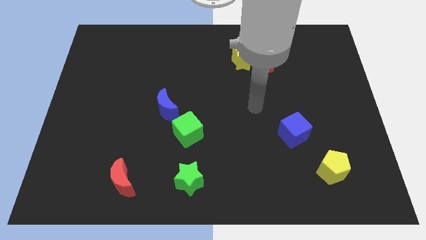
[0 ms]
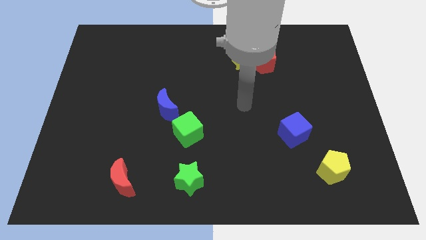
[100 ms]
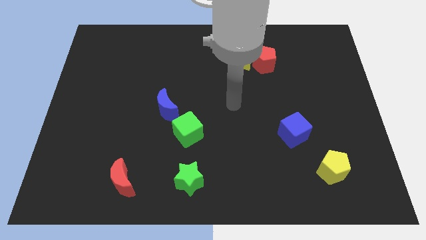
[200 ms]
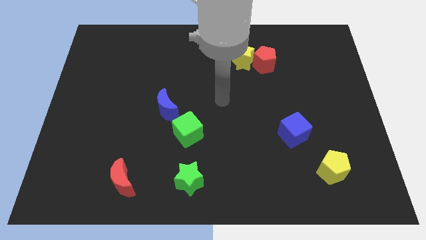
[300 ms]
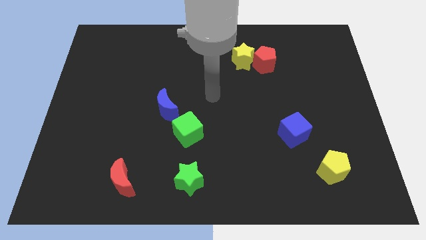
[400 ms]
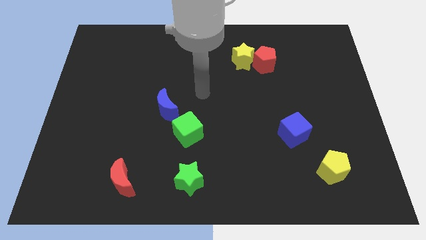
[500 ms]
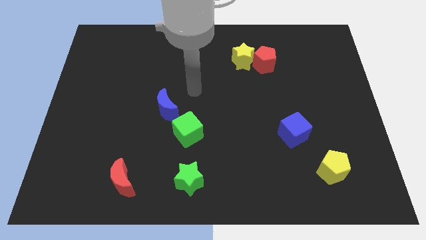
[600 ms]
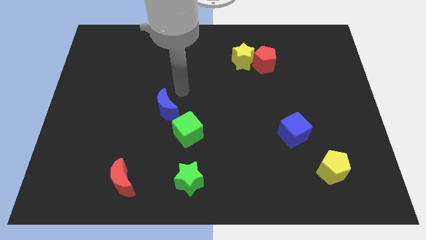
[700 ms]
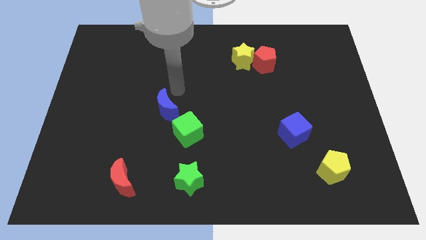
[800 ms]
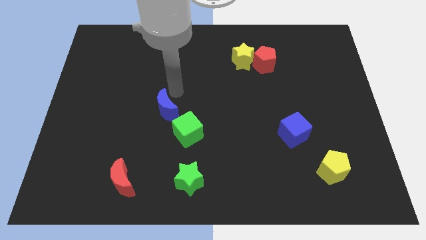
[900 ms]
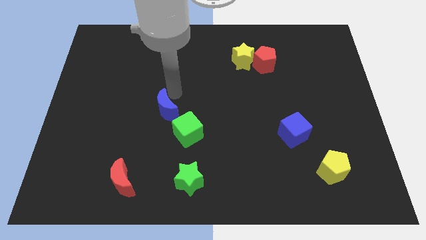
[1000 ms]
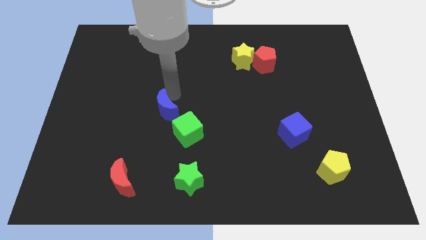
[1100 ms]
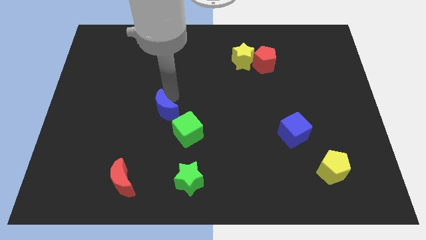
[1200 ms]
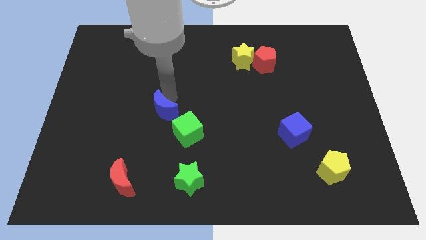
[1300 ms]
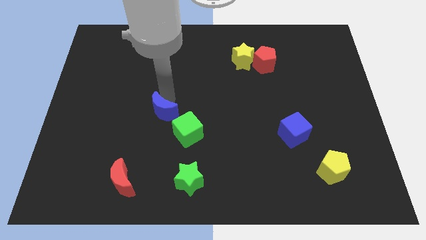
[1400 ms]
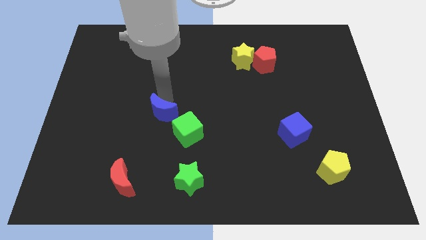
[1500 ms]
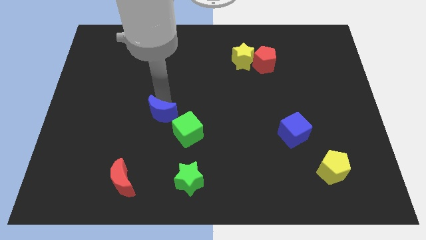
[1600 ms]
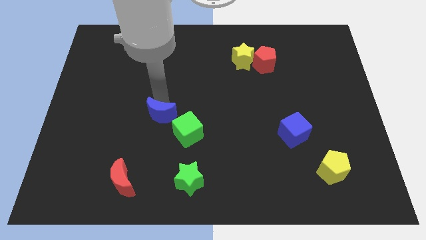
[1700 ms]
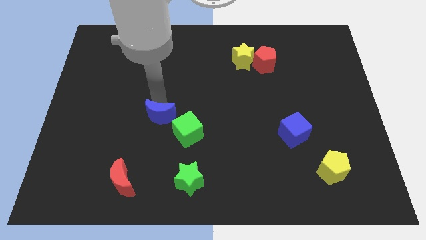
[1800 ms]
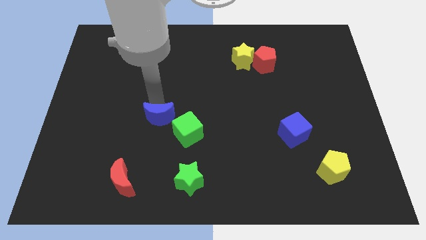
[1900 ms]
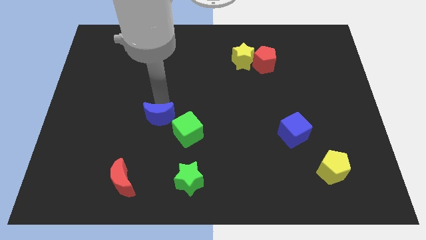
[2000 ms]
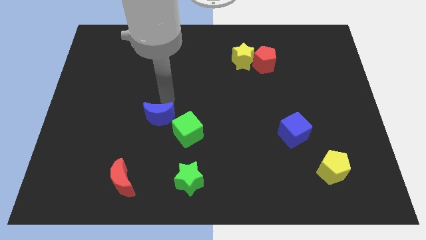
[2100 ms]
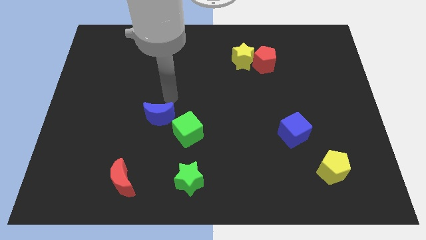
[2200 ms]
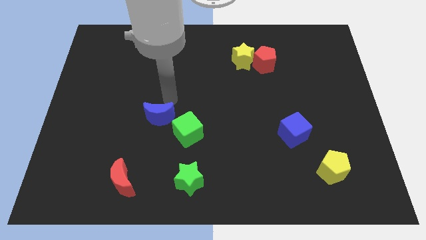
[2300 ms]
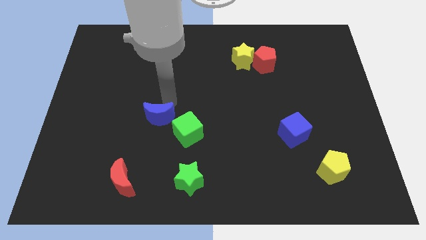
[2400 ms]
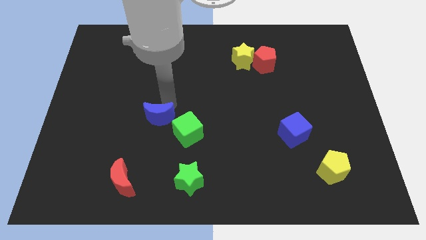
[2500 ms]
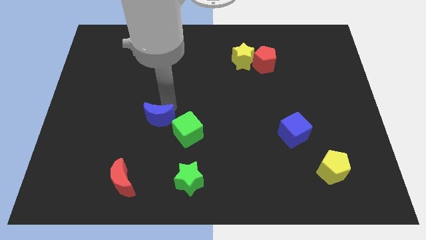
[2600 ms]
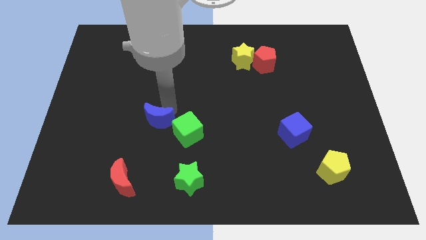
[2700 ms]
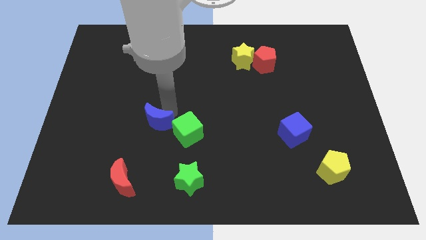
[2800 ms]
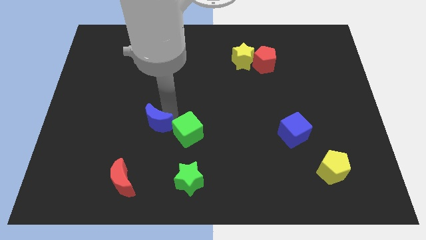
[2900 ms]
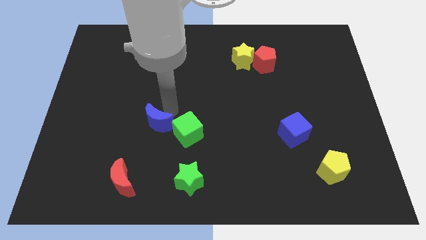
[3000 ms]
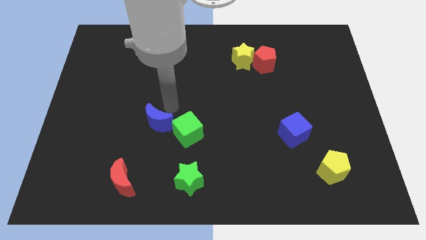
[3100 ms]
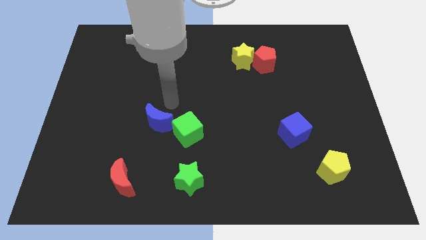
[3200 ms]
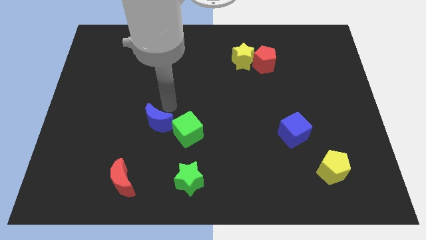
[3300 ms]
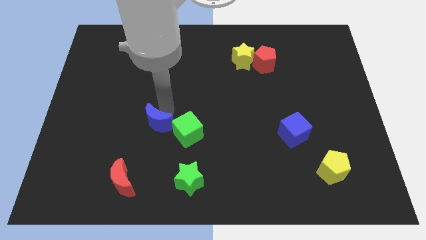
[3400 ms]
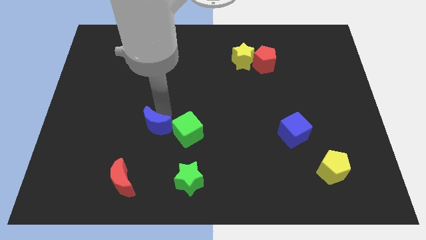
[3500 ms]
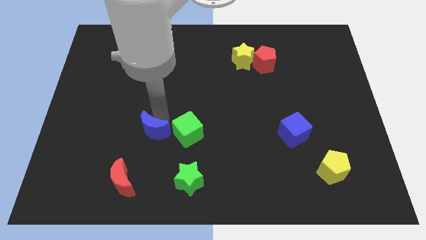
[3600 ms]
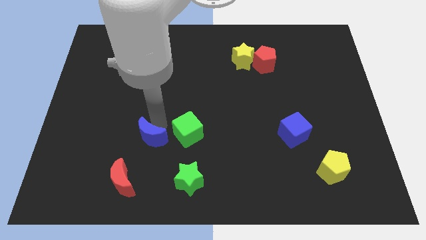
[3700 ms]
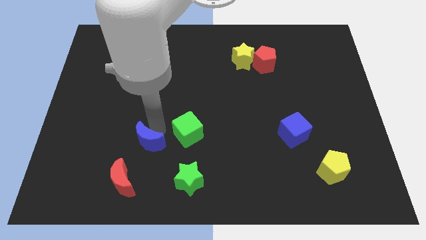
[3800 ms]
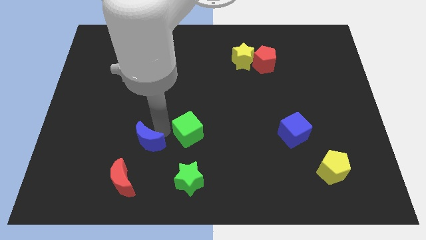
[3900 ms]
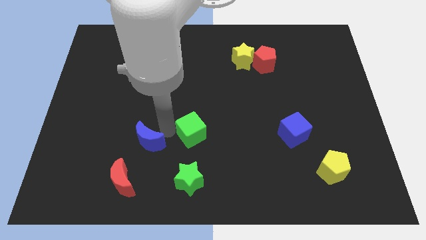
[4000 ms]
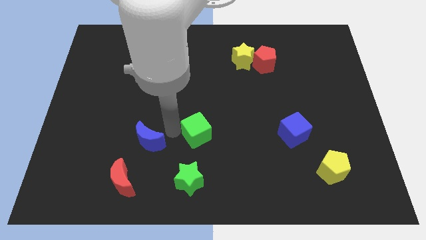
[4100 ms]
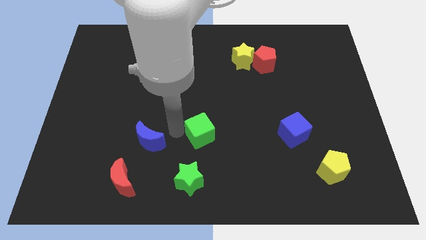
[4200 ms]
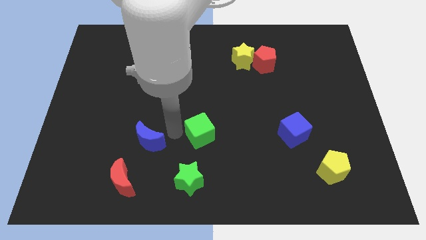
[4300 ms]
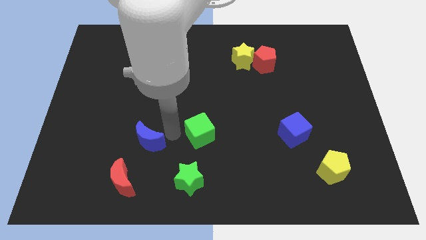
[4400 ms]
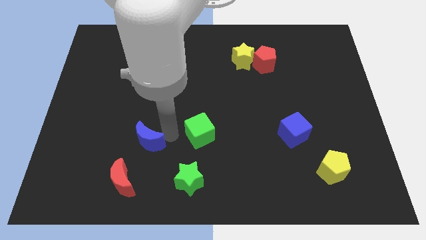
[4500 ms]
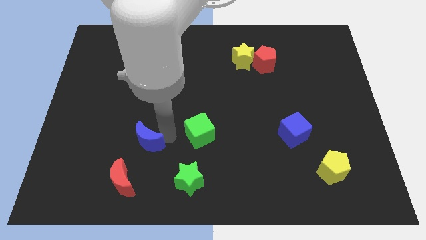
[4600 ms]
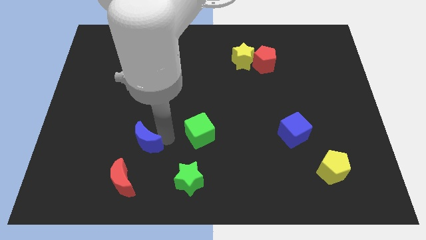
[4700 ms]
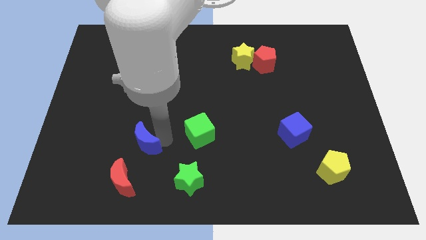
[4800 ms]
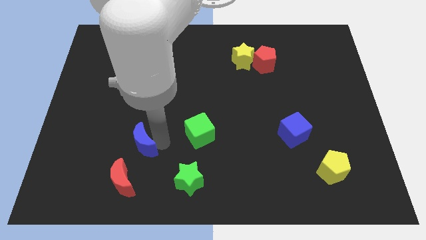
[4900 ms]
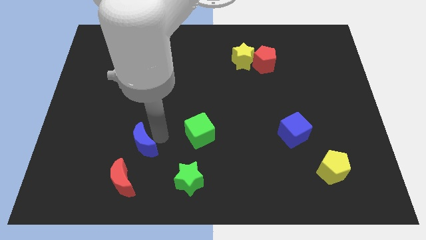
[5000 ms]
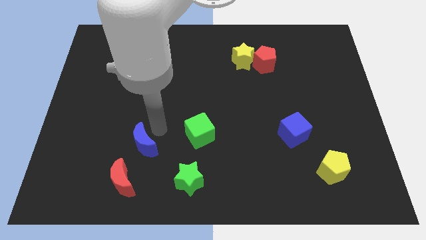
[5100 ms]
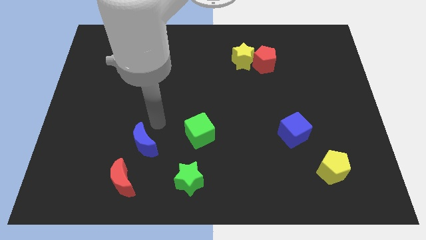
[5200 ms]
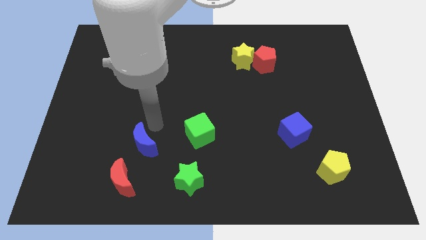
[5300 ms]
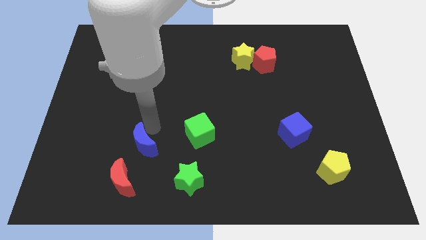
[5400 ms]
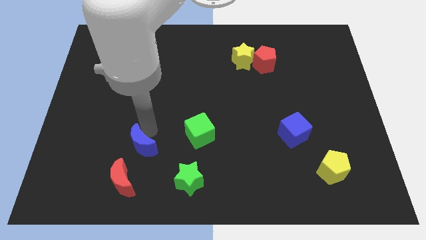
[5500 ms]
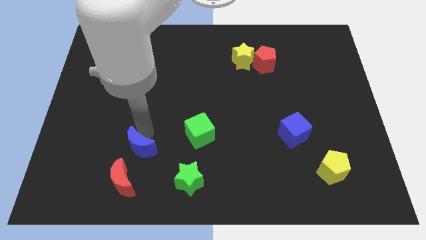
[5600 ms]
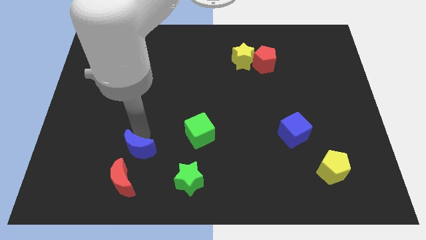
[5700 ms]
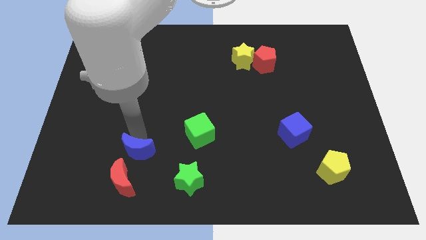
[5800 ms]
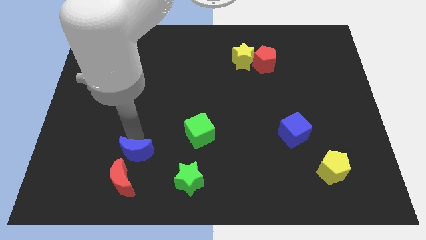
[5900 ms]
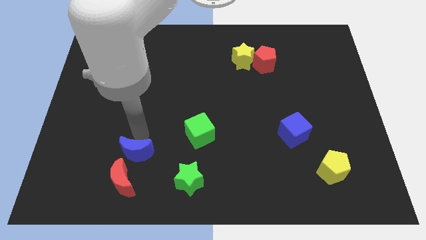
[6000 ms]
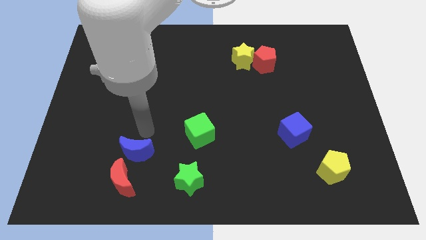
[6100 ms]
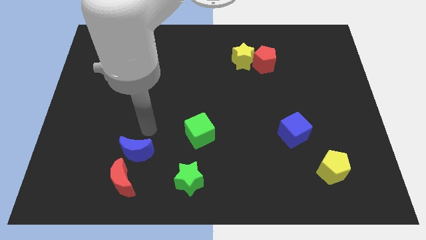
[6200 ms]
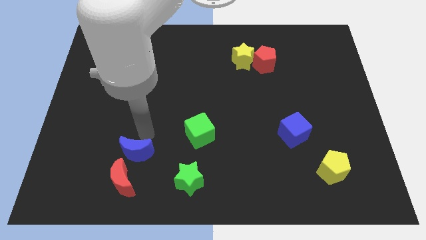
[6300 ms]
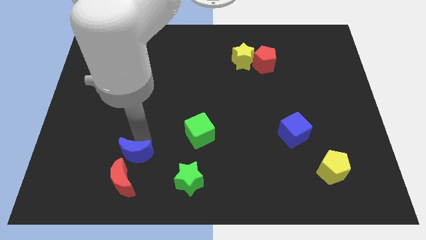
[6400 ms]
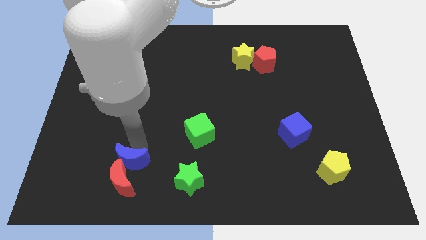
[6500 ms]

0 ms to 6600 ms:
push the blue moon next to the red moon
